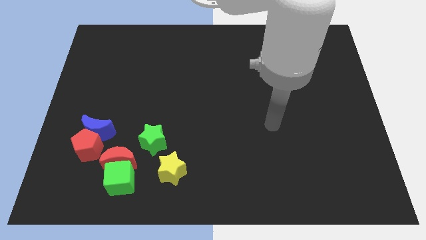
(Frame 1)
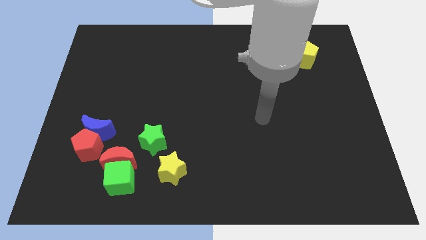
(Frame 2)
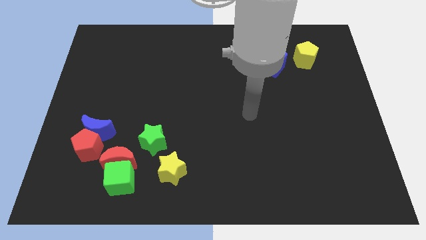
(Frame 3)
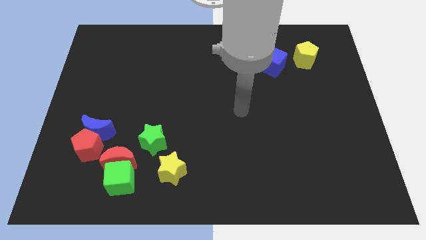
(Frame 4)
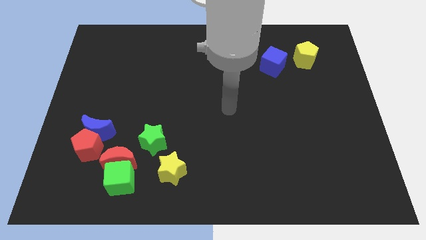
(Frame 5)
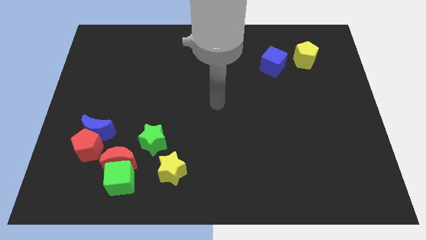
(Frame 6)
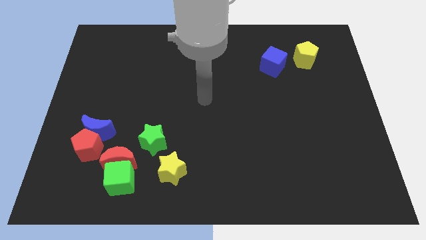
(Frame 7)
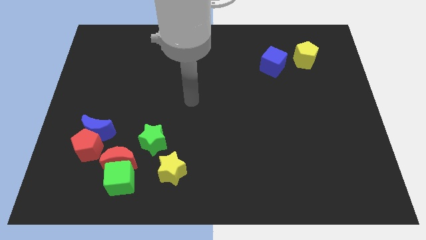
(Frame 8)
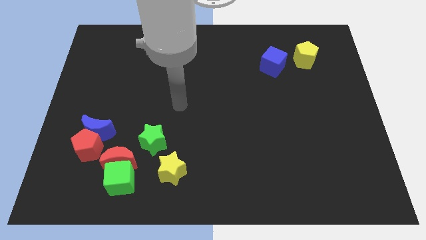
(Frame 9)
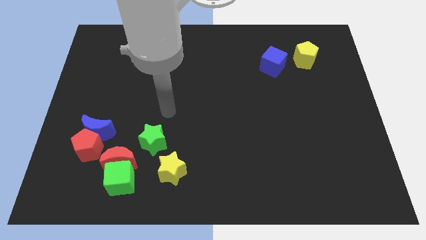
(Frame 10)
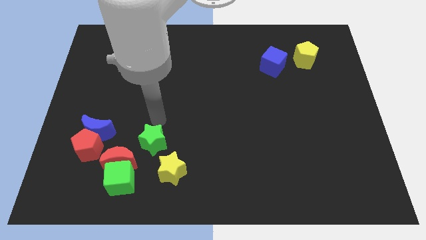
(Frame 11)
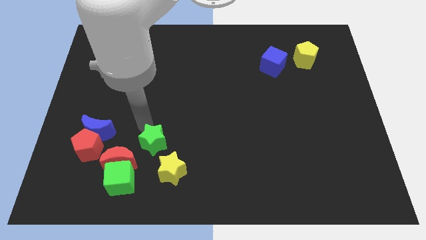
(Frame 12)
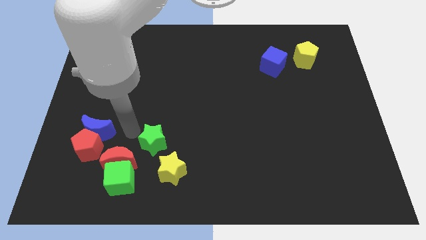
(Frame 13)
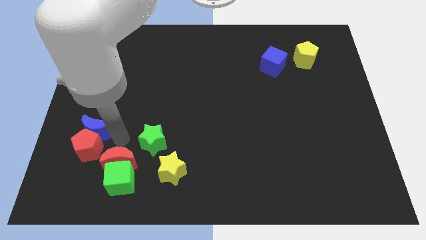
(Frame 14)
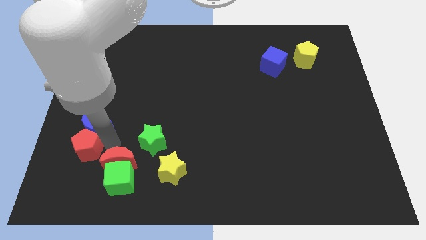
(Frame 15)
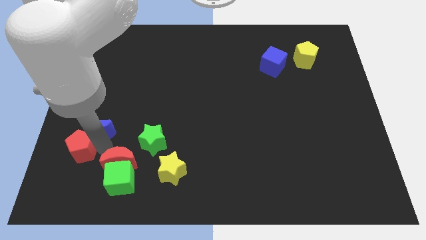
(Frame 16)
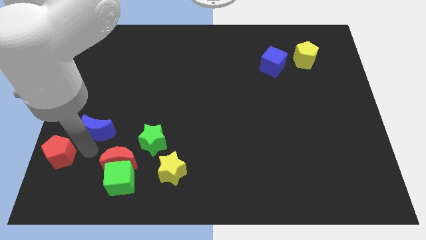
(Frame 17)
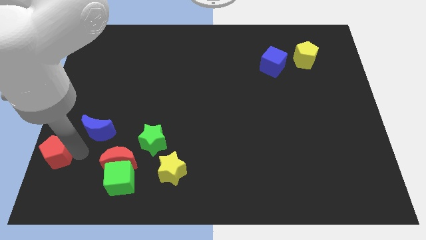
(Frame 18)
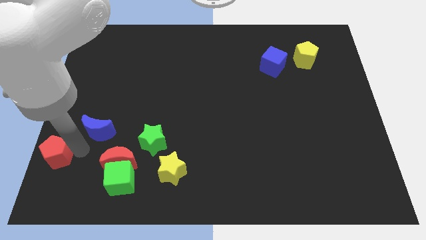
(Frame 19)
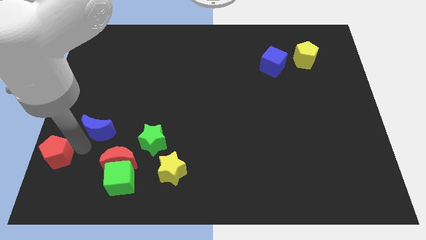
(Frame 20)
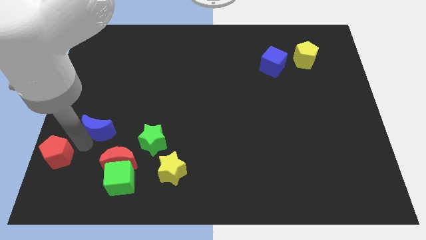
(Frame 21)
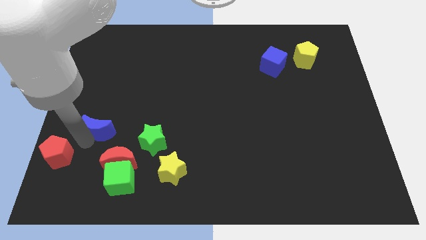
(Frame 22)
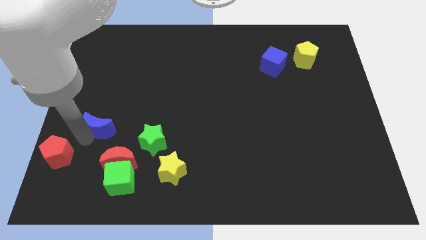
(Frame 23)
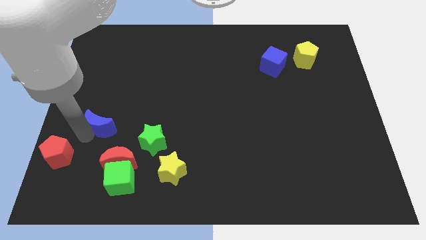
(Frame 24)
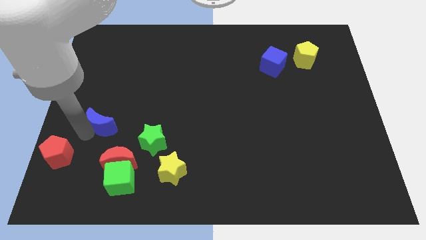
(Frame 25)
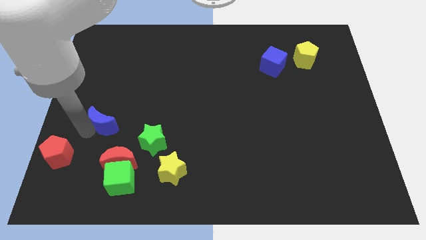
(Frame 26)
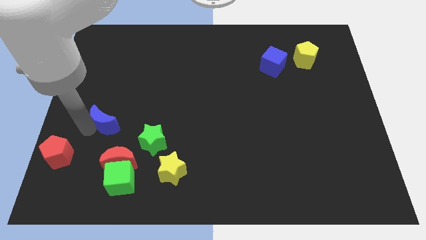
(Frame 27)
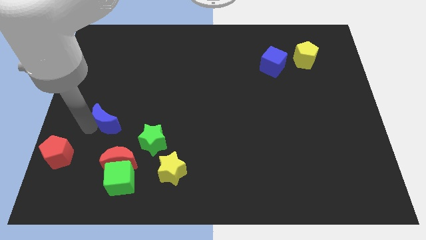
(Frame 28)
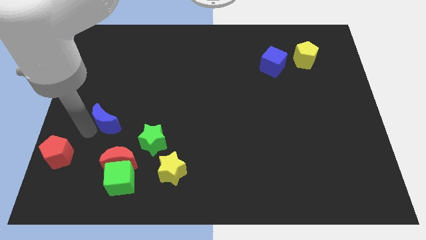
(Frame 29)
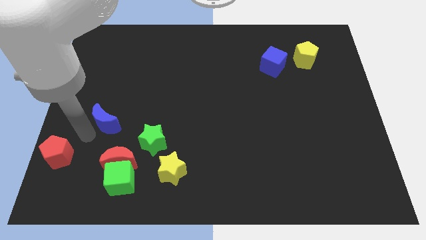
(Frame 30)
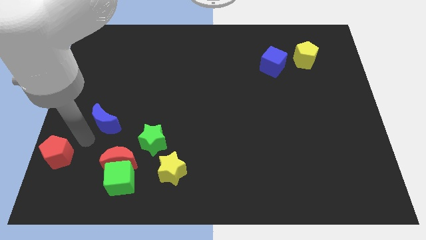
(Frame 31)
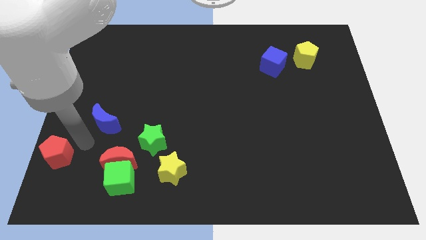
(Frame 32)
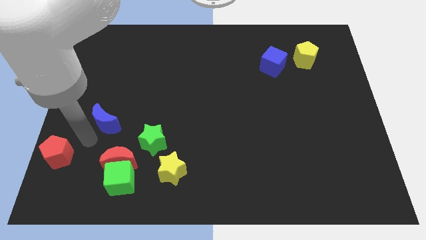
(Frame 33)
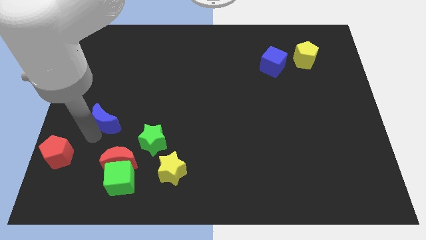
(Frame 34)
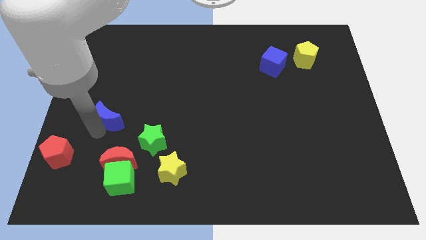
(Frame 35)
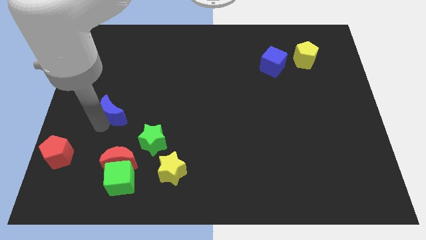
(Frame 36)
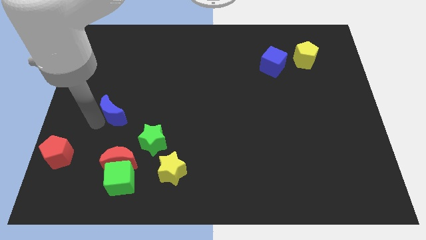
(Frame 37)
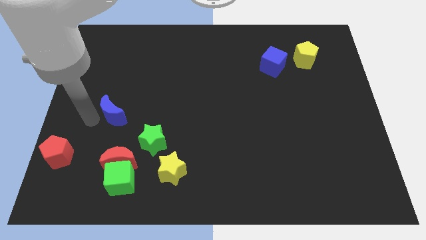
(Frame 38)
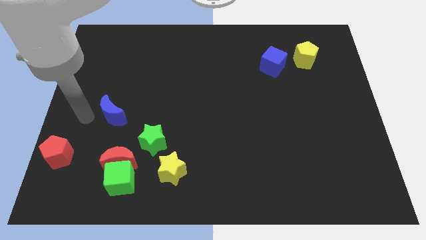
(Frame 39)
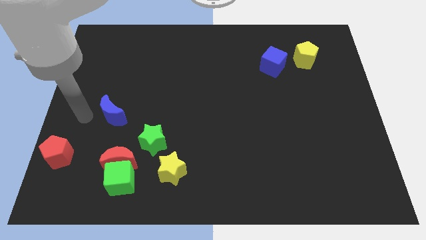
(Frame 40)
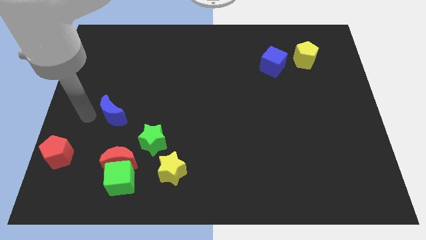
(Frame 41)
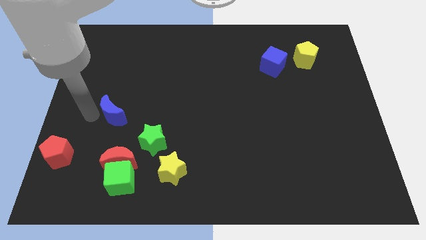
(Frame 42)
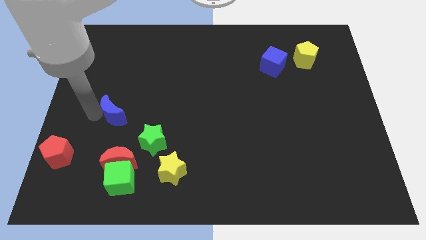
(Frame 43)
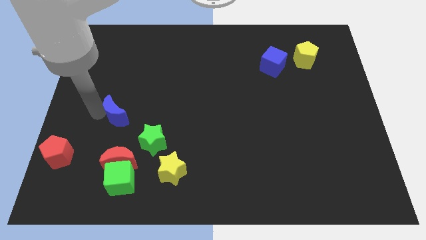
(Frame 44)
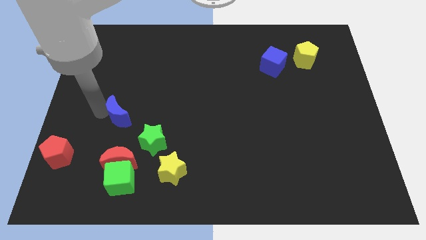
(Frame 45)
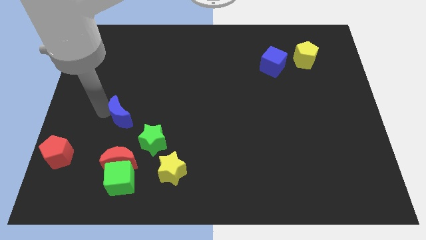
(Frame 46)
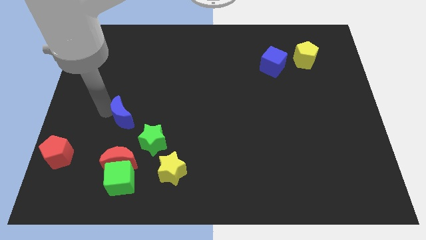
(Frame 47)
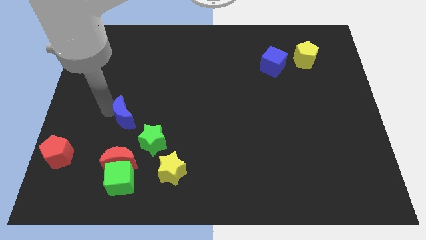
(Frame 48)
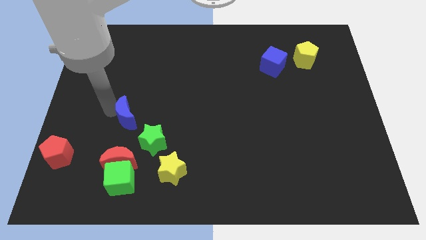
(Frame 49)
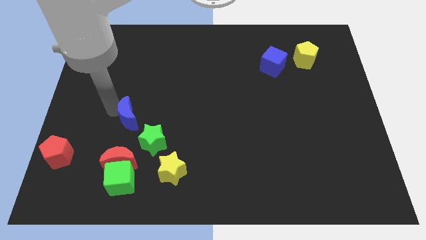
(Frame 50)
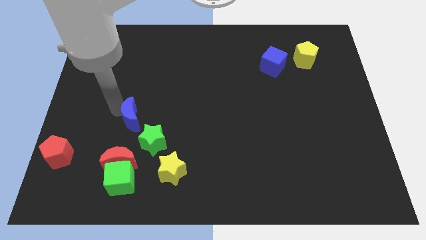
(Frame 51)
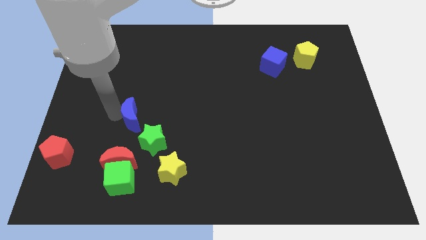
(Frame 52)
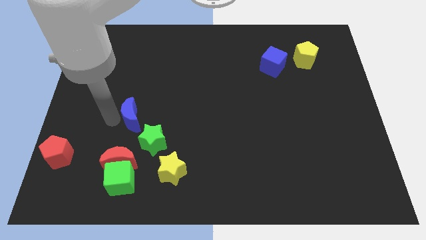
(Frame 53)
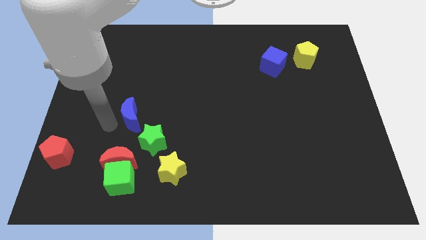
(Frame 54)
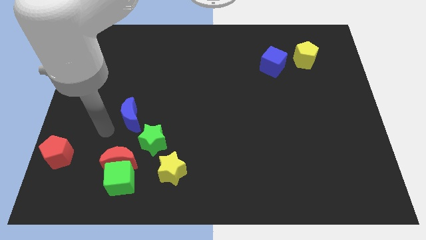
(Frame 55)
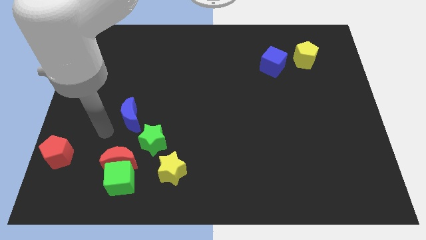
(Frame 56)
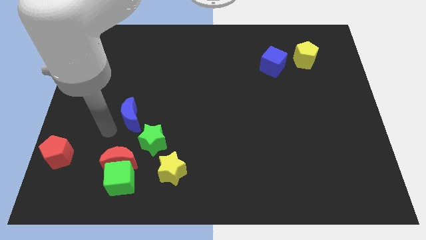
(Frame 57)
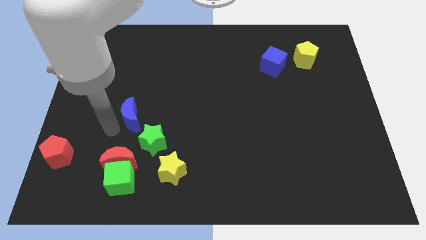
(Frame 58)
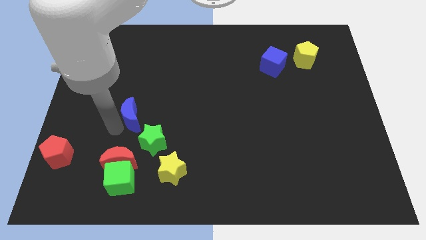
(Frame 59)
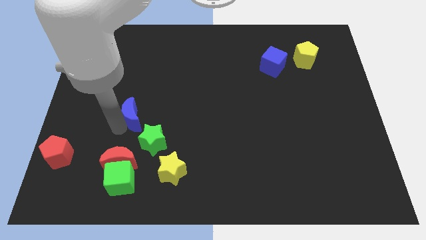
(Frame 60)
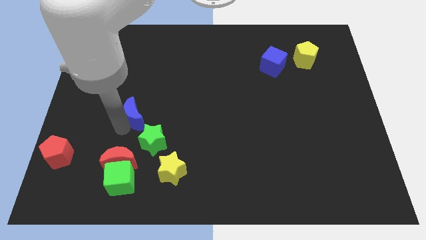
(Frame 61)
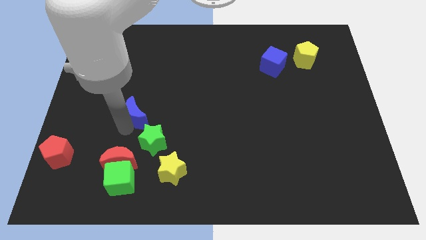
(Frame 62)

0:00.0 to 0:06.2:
slide the blue moon to the top of the green star

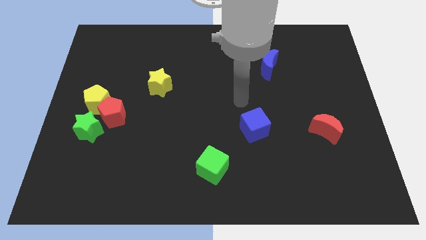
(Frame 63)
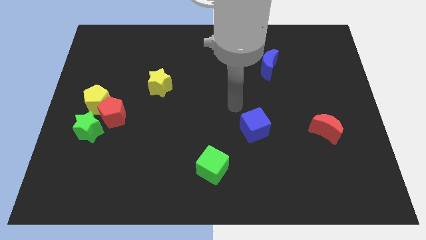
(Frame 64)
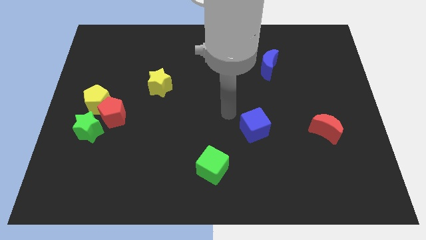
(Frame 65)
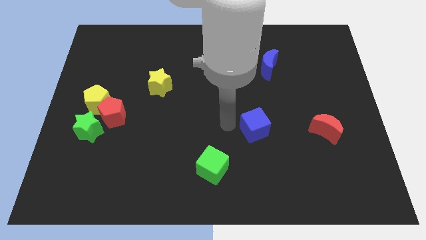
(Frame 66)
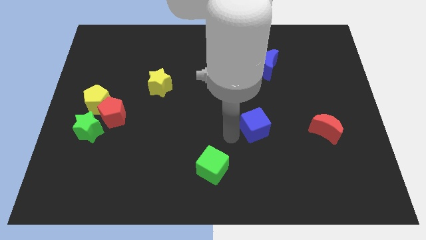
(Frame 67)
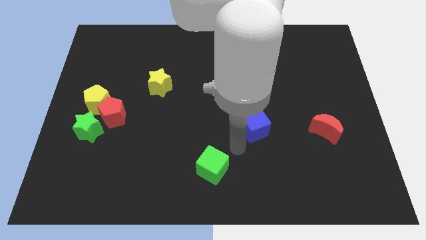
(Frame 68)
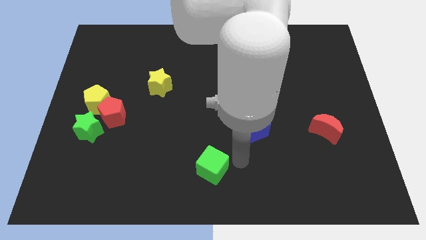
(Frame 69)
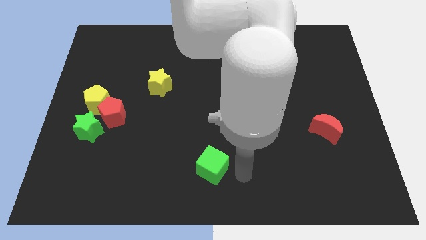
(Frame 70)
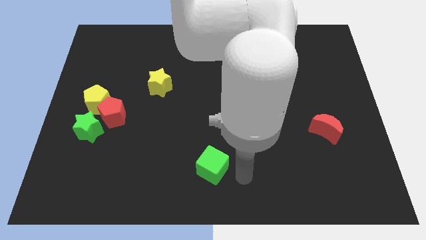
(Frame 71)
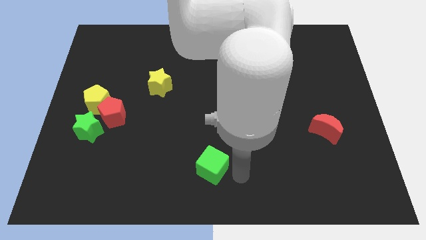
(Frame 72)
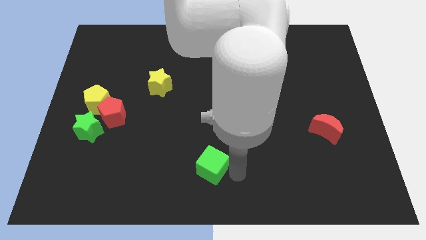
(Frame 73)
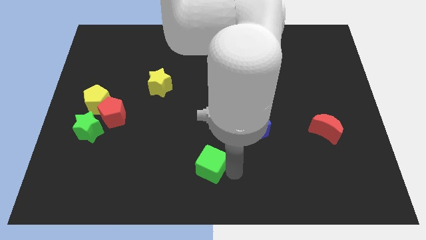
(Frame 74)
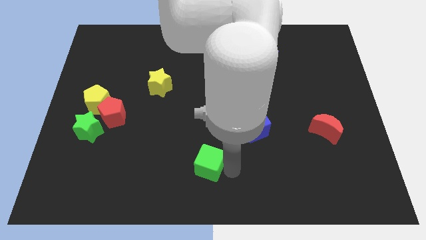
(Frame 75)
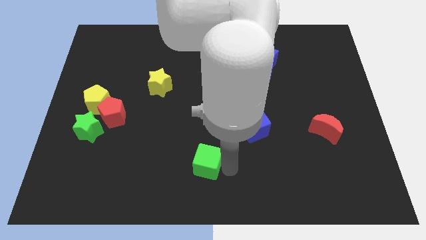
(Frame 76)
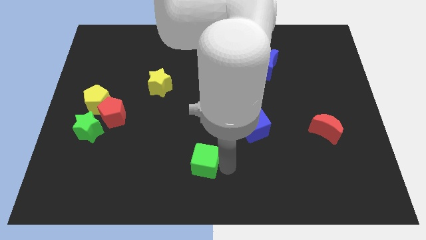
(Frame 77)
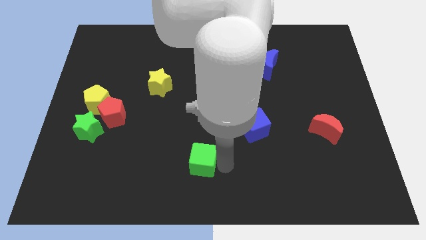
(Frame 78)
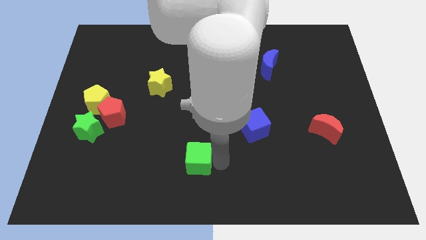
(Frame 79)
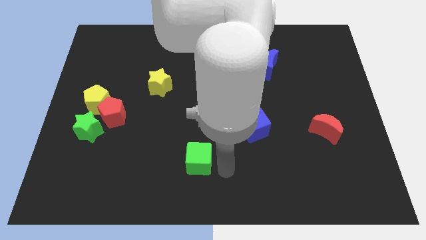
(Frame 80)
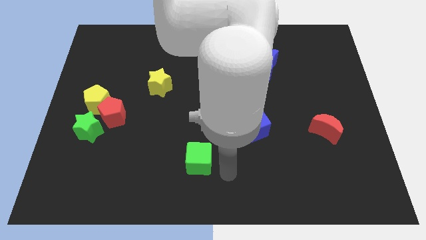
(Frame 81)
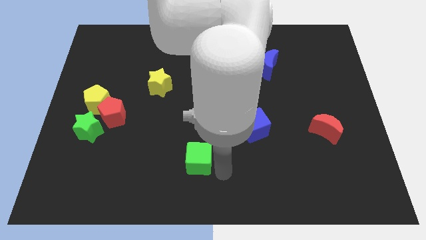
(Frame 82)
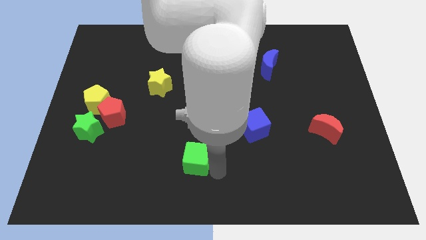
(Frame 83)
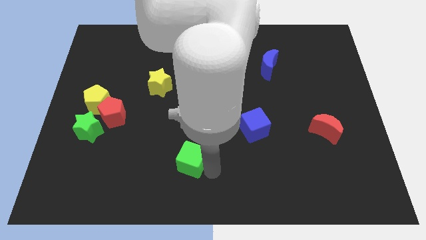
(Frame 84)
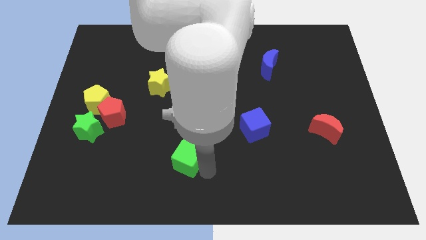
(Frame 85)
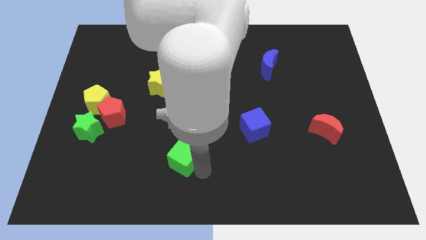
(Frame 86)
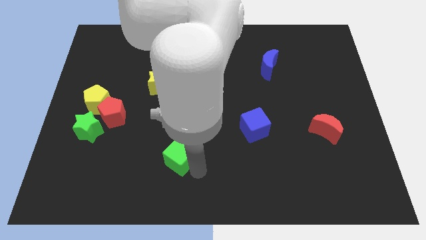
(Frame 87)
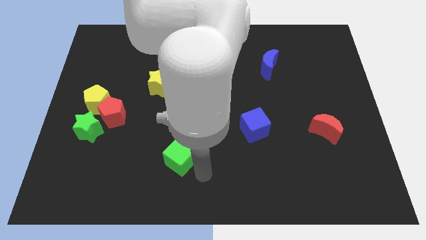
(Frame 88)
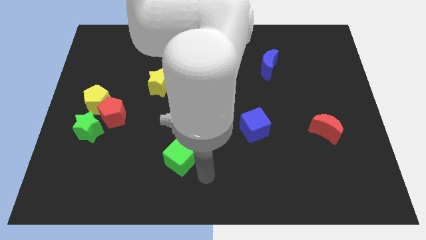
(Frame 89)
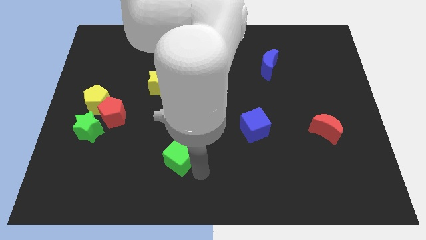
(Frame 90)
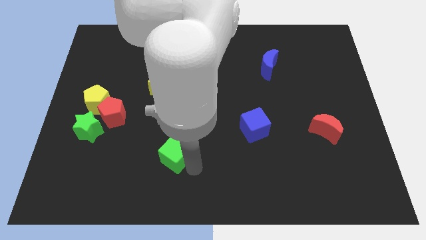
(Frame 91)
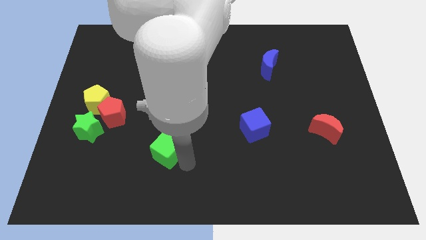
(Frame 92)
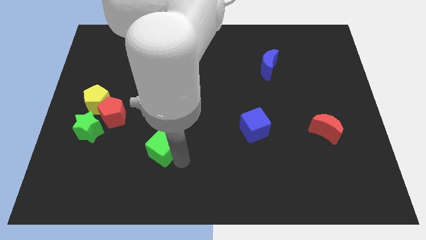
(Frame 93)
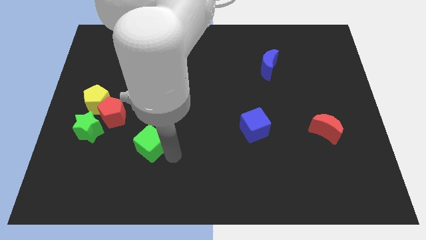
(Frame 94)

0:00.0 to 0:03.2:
put the green cube to the bottom right side of the red pentagon
